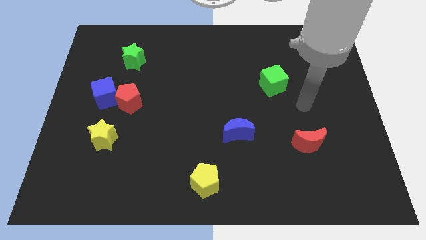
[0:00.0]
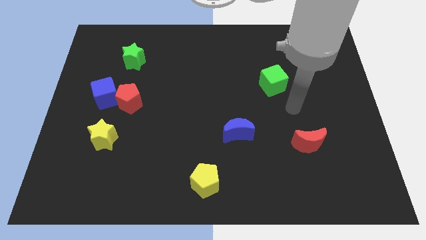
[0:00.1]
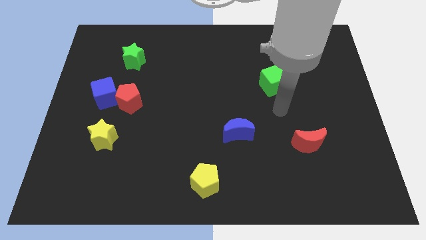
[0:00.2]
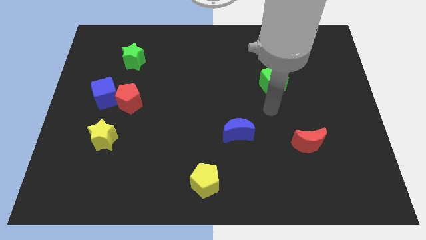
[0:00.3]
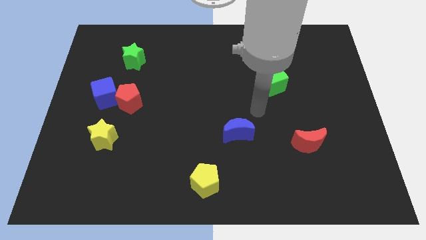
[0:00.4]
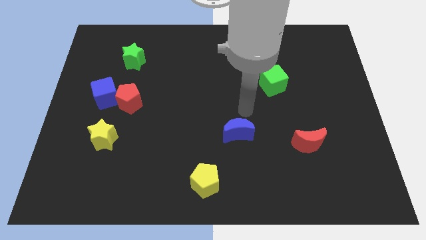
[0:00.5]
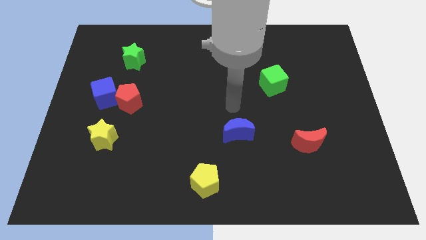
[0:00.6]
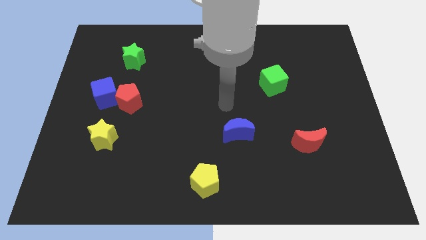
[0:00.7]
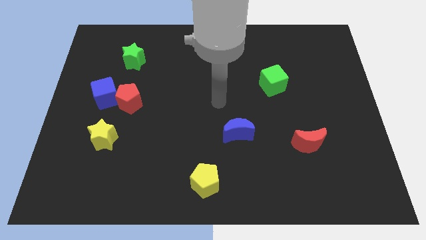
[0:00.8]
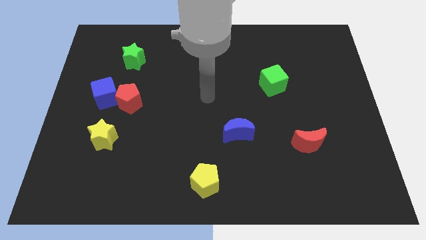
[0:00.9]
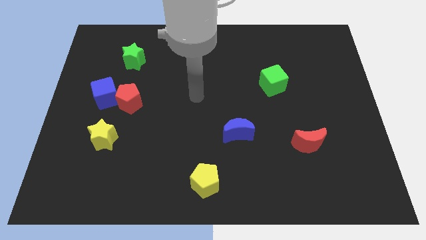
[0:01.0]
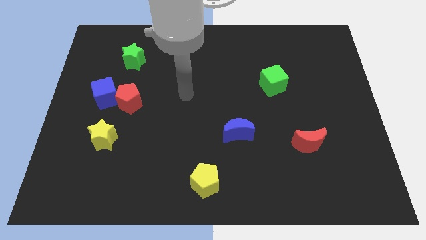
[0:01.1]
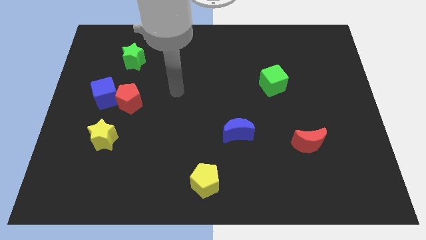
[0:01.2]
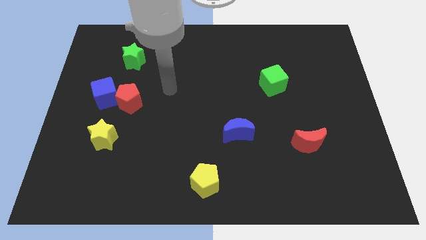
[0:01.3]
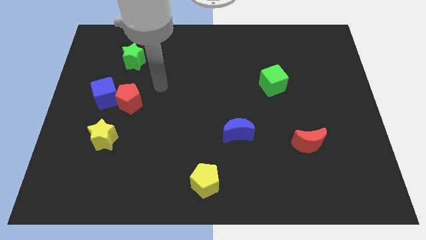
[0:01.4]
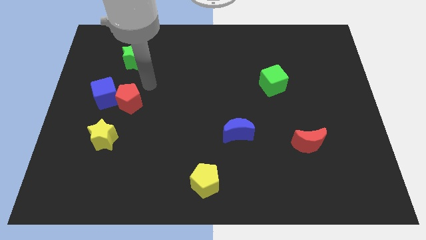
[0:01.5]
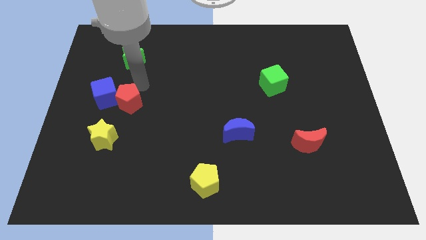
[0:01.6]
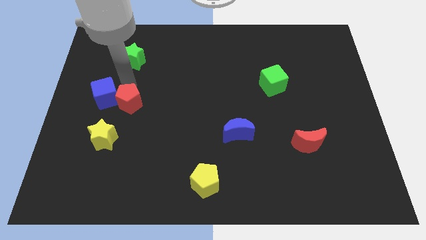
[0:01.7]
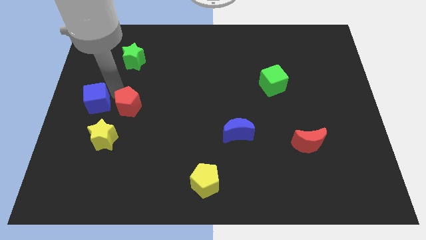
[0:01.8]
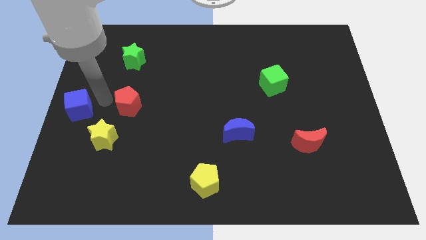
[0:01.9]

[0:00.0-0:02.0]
move the red pentagon away from the blue cube

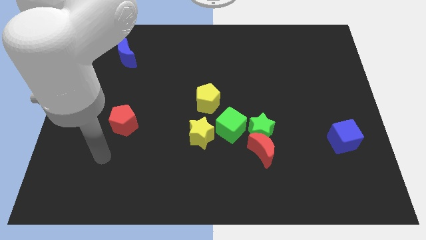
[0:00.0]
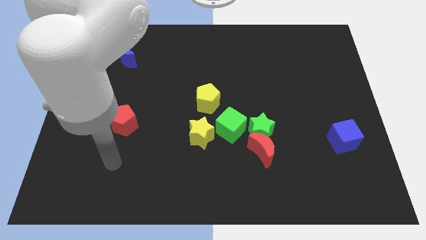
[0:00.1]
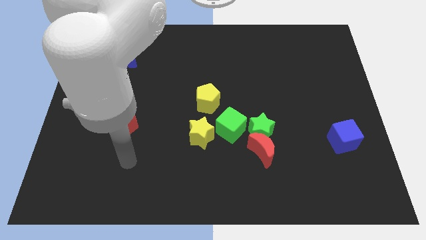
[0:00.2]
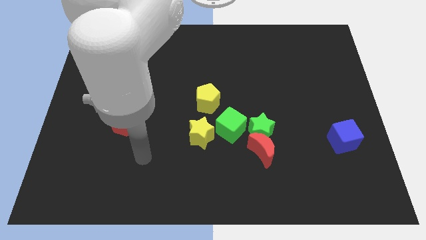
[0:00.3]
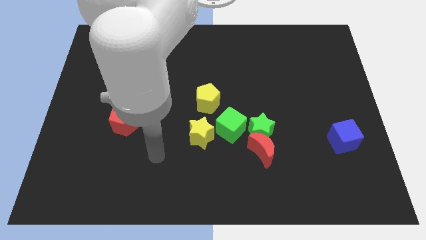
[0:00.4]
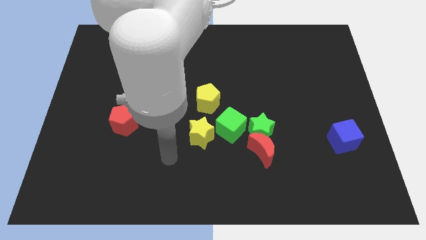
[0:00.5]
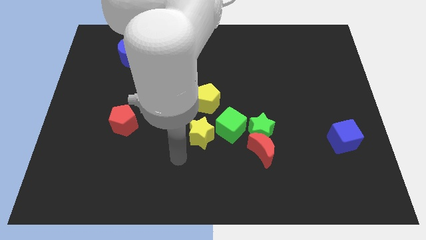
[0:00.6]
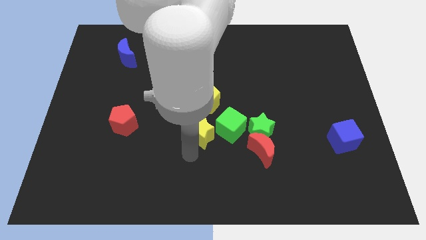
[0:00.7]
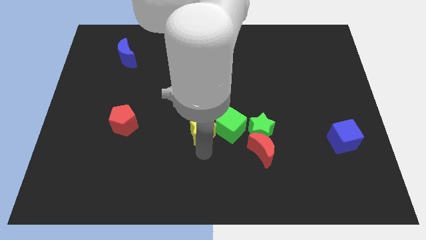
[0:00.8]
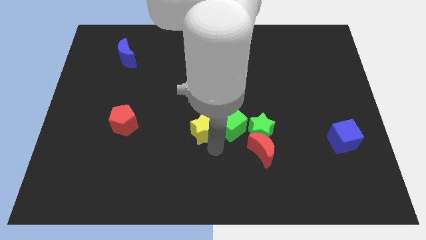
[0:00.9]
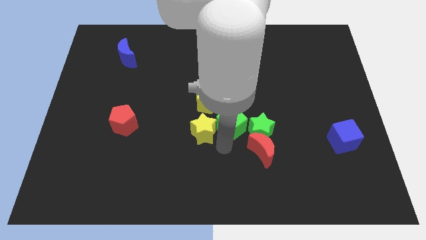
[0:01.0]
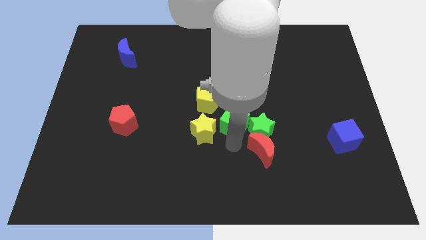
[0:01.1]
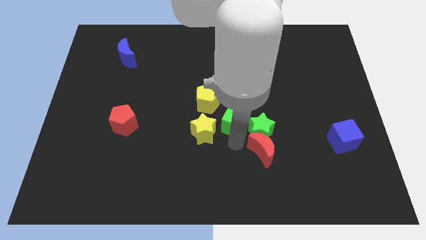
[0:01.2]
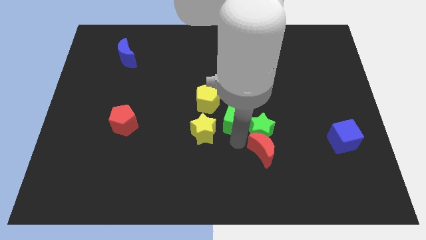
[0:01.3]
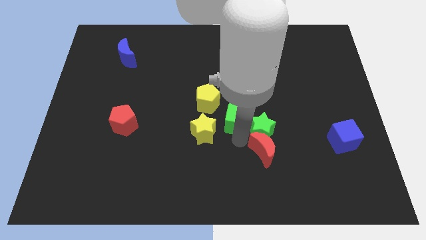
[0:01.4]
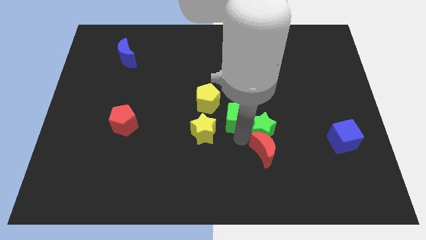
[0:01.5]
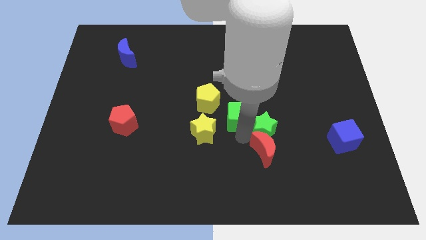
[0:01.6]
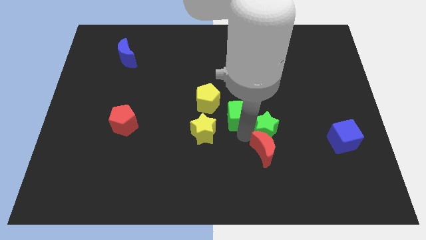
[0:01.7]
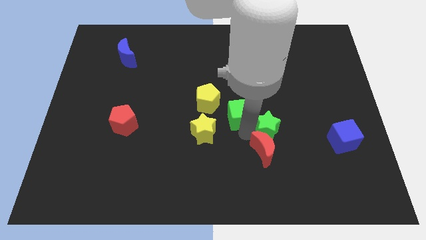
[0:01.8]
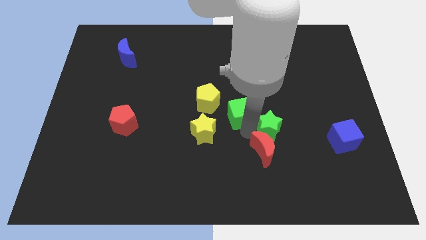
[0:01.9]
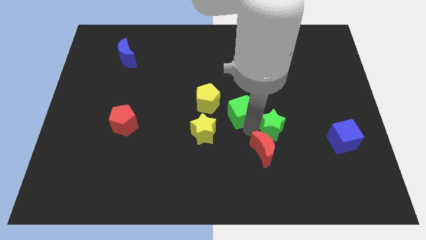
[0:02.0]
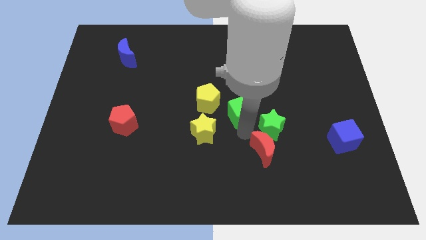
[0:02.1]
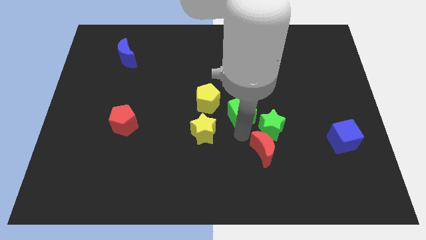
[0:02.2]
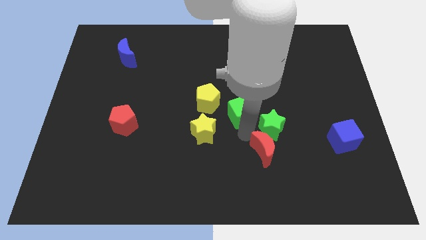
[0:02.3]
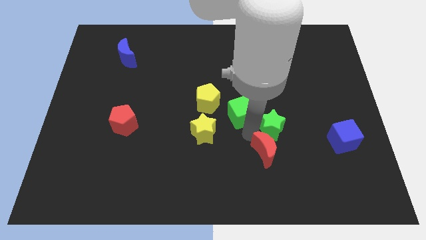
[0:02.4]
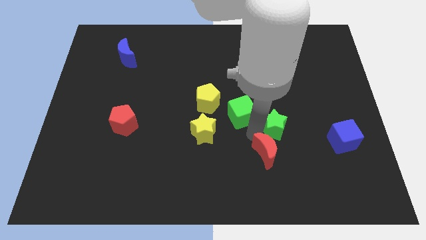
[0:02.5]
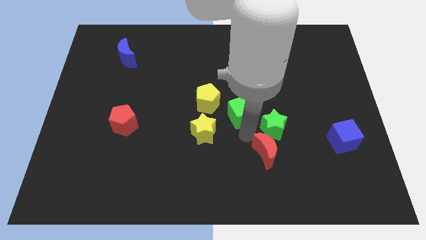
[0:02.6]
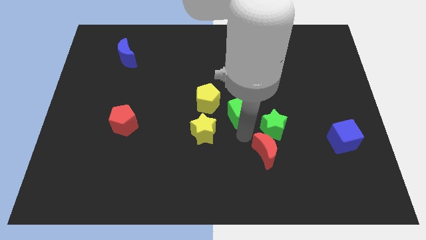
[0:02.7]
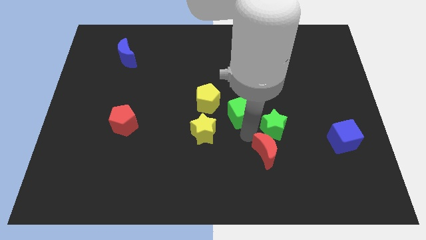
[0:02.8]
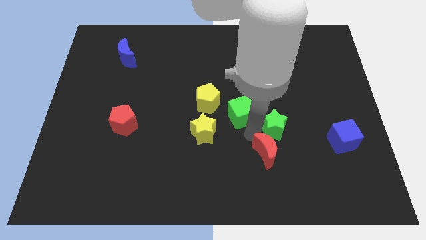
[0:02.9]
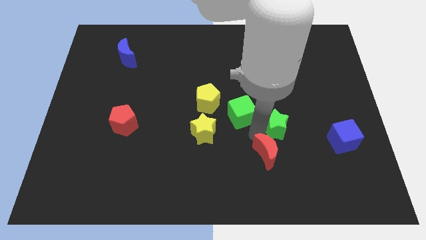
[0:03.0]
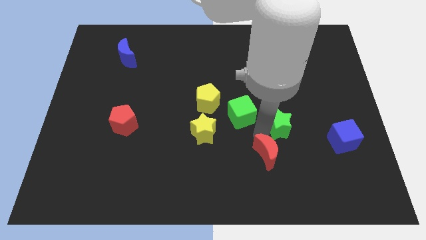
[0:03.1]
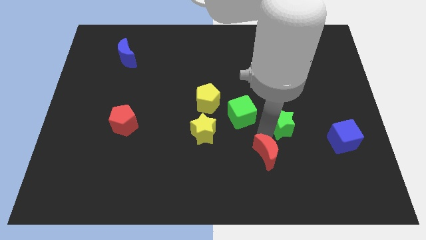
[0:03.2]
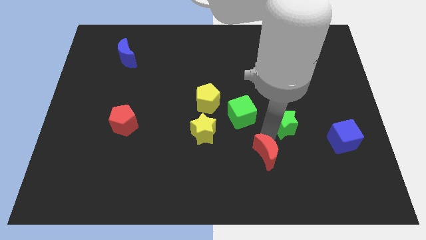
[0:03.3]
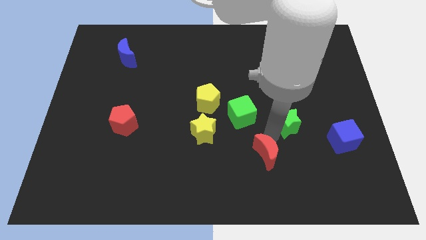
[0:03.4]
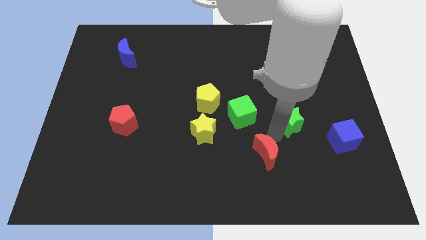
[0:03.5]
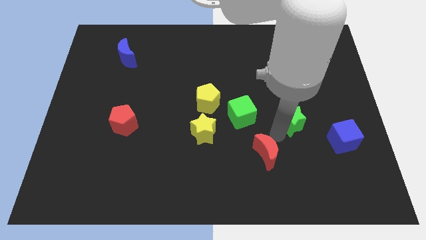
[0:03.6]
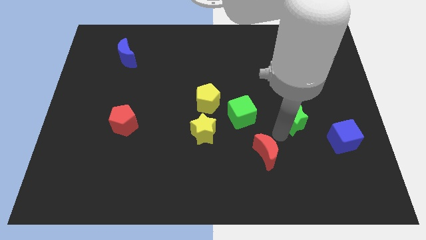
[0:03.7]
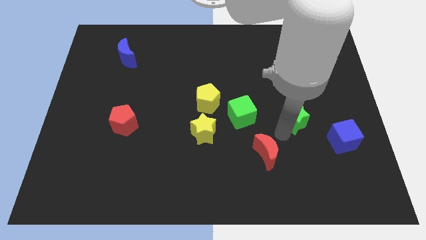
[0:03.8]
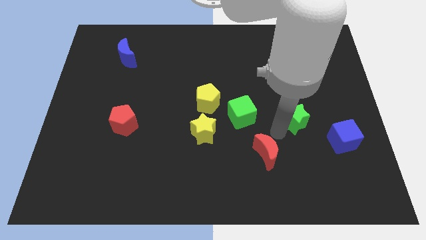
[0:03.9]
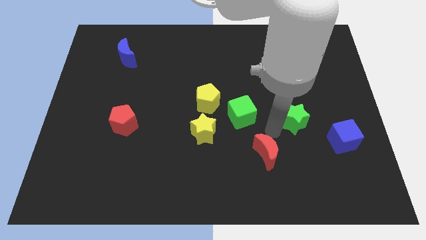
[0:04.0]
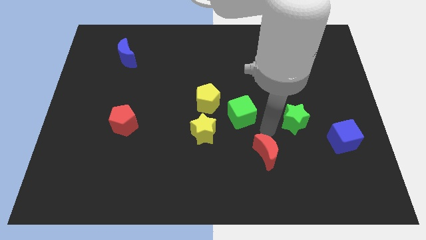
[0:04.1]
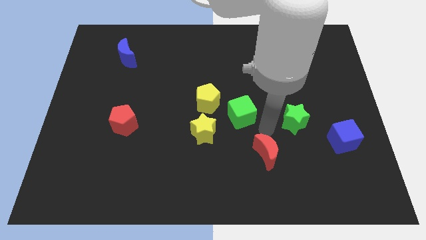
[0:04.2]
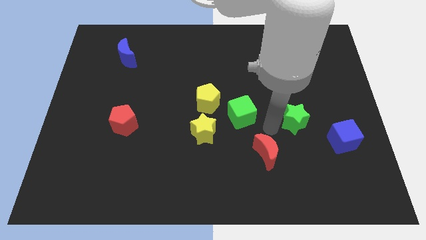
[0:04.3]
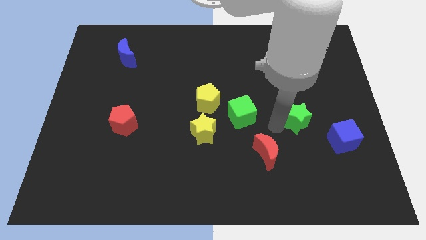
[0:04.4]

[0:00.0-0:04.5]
pull the green star apart from the red moon and green cube

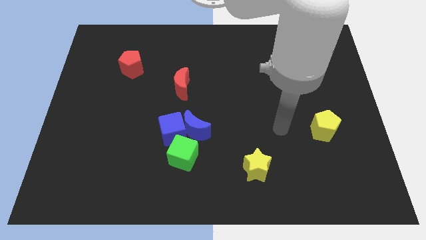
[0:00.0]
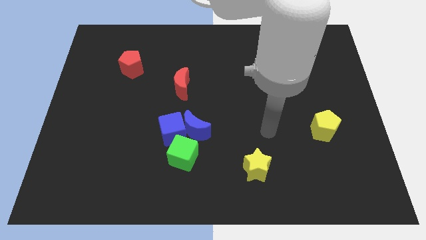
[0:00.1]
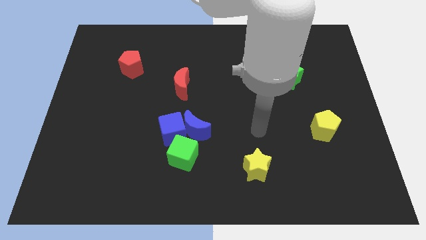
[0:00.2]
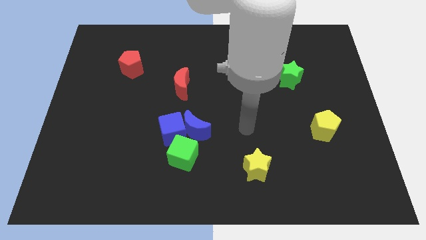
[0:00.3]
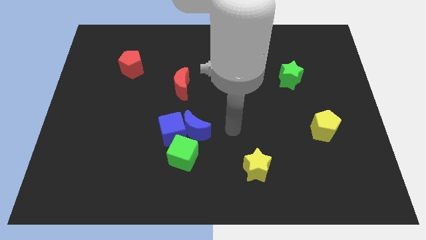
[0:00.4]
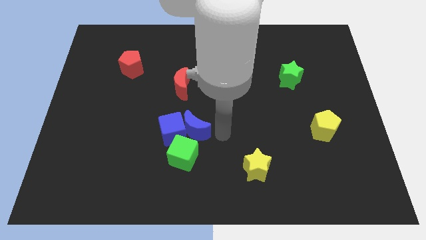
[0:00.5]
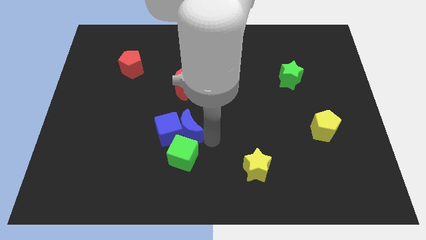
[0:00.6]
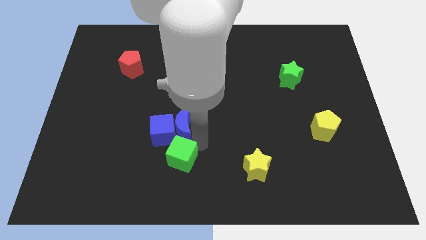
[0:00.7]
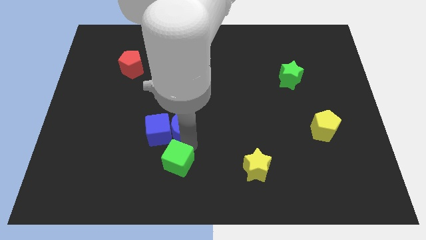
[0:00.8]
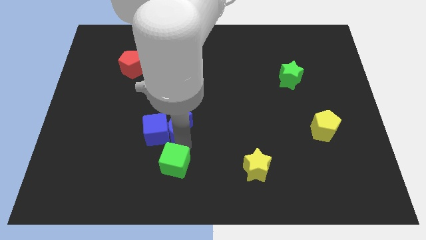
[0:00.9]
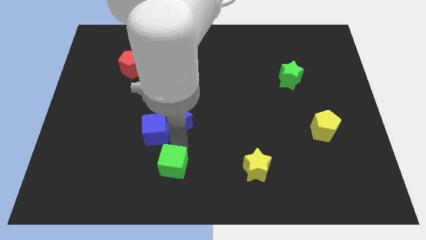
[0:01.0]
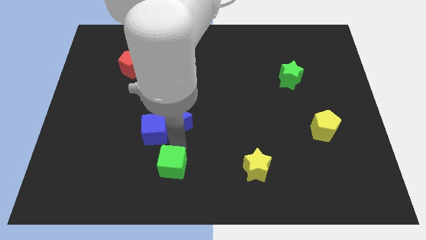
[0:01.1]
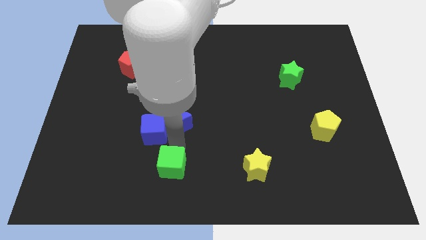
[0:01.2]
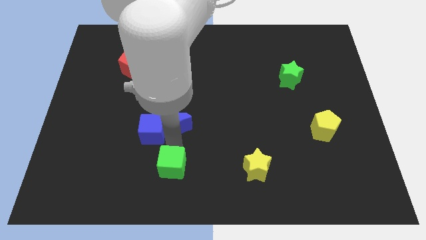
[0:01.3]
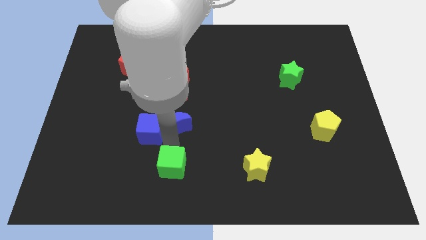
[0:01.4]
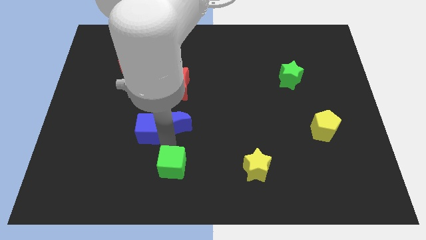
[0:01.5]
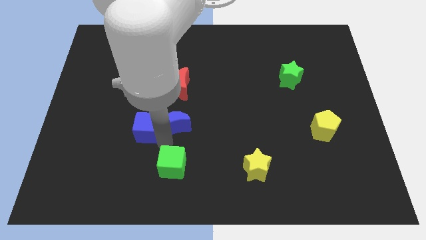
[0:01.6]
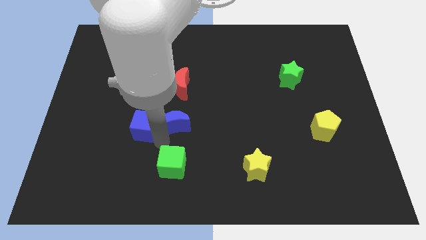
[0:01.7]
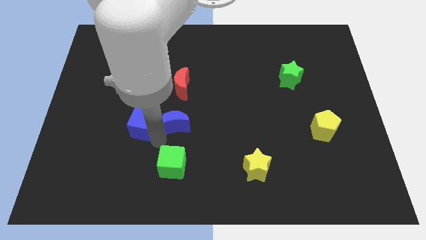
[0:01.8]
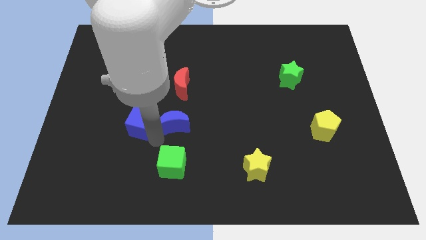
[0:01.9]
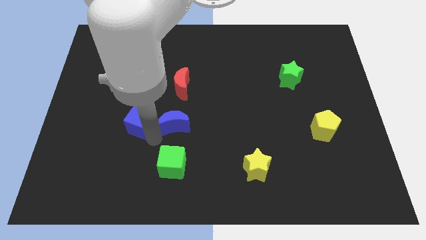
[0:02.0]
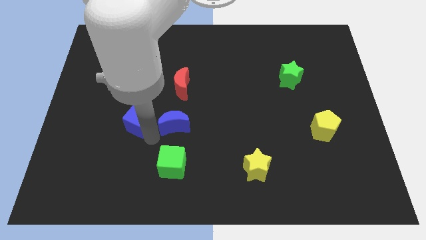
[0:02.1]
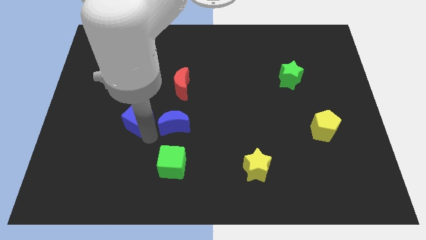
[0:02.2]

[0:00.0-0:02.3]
move the blue cube away from the blue moon and green cube

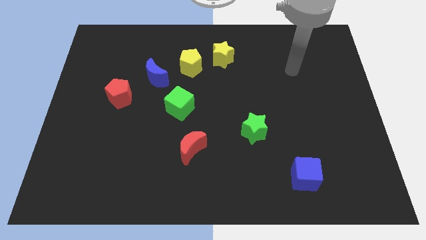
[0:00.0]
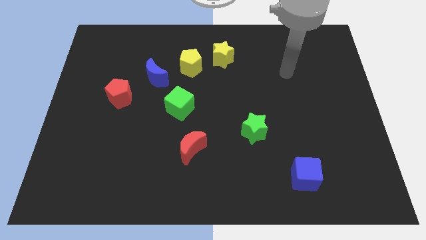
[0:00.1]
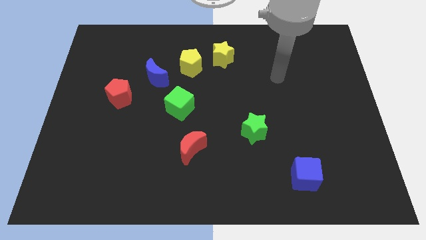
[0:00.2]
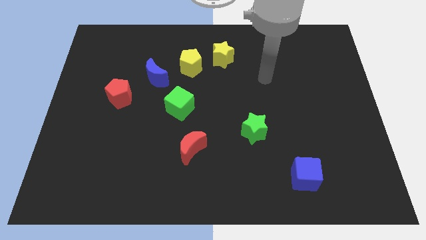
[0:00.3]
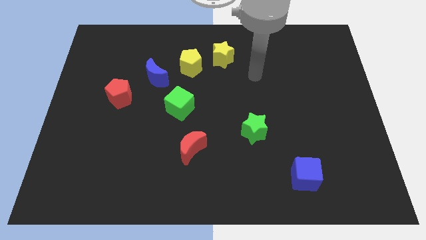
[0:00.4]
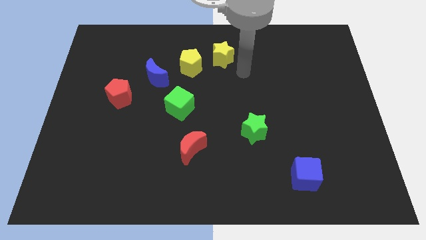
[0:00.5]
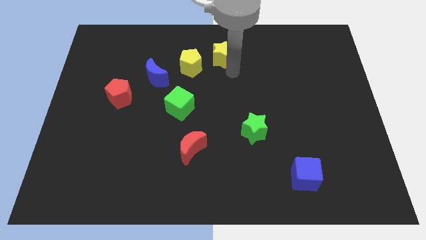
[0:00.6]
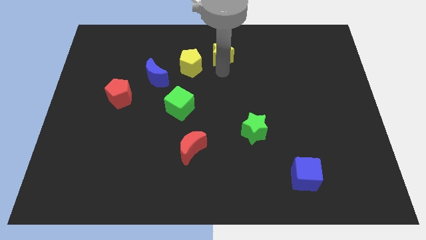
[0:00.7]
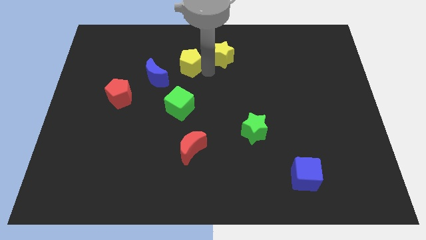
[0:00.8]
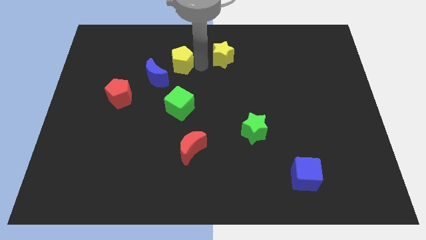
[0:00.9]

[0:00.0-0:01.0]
pull the yellow star apart from the yellow pentagon
